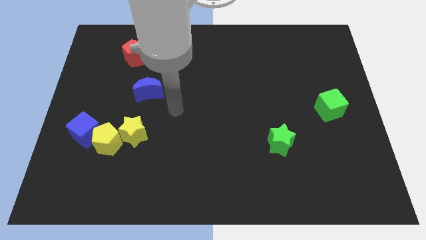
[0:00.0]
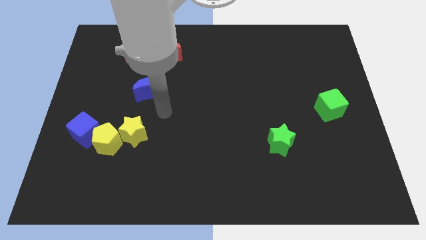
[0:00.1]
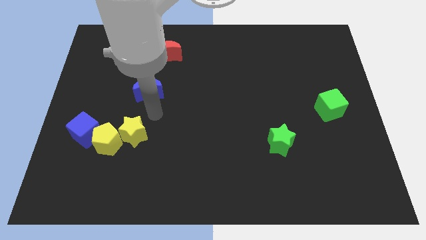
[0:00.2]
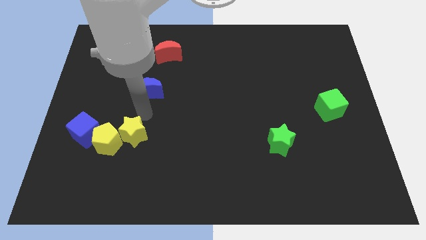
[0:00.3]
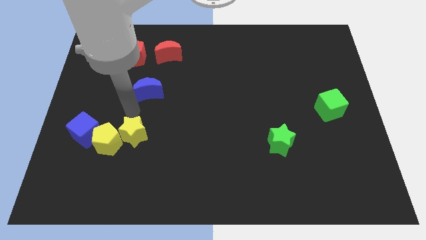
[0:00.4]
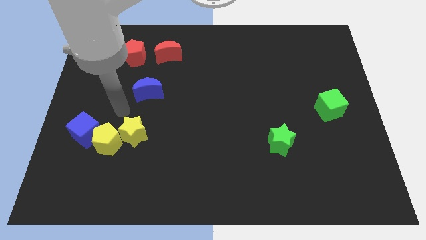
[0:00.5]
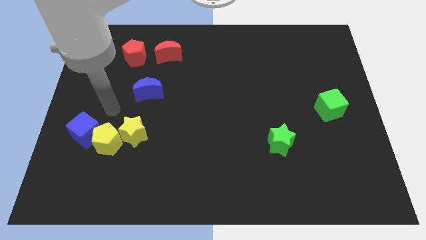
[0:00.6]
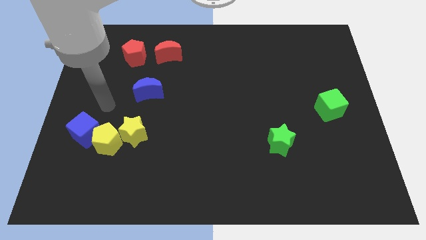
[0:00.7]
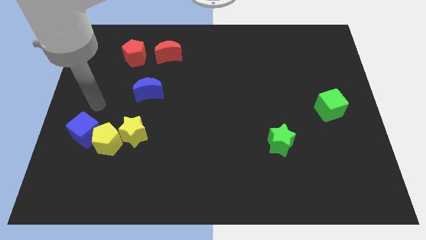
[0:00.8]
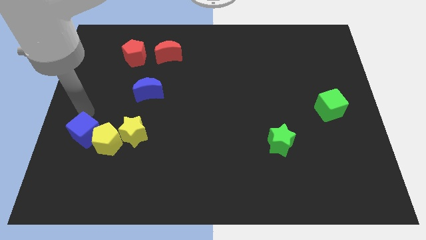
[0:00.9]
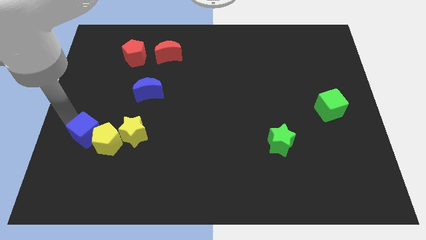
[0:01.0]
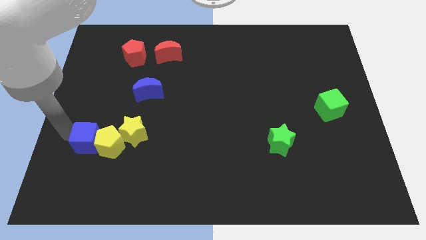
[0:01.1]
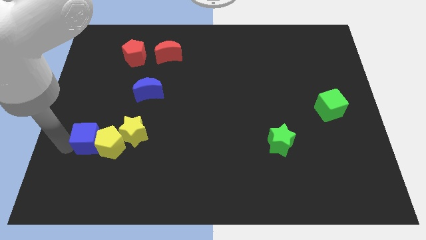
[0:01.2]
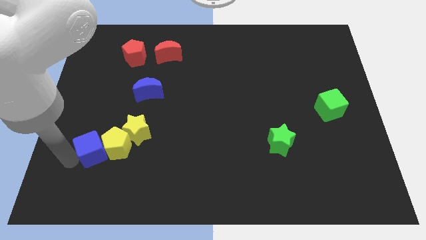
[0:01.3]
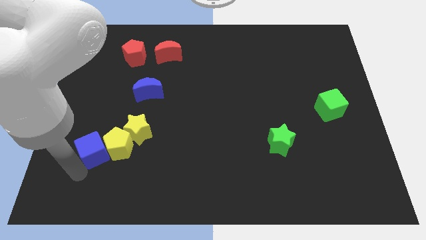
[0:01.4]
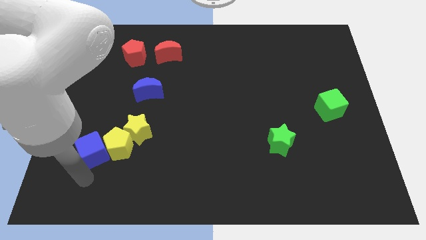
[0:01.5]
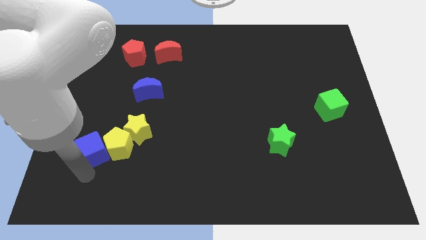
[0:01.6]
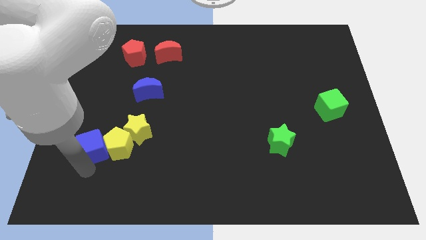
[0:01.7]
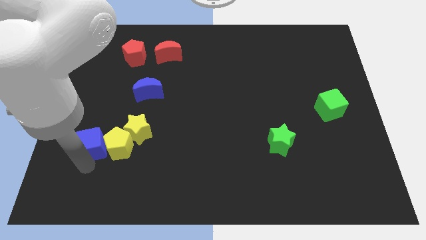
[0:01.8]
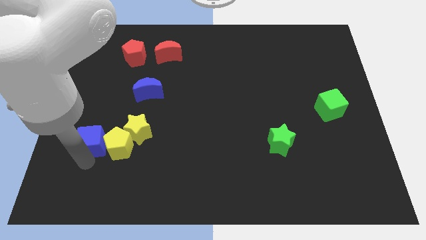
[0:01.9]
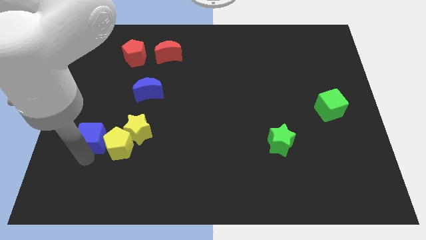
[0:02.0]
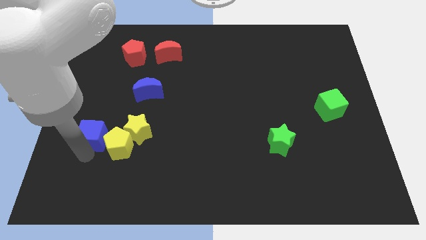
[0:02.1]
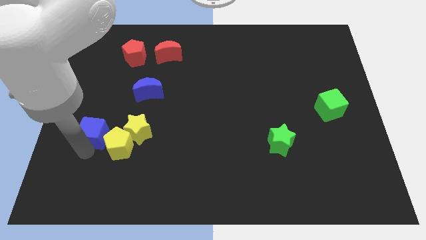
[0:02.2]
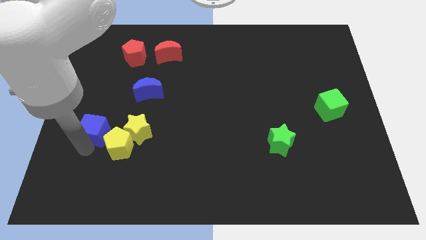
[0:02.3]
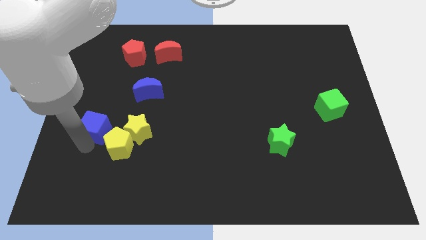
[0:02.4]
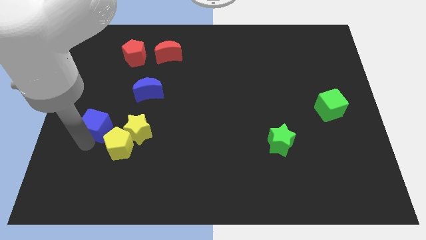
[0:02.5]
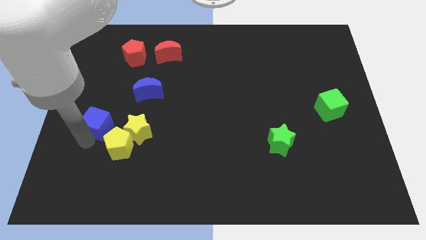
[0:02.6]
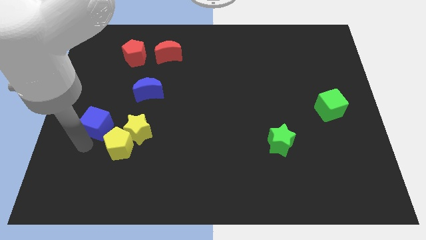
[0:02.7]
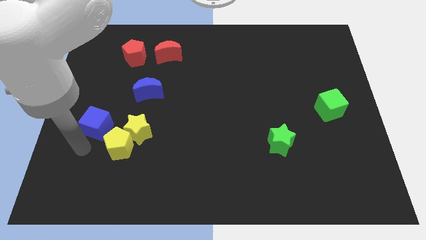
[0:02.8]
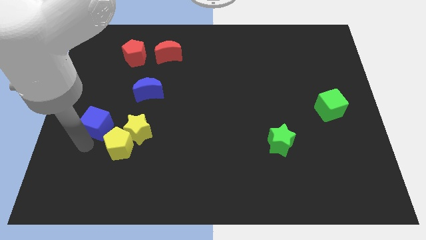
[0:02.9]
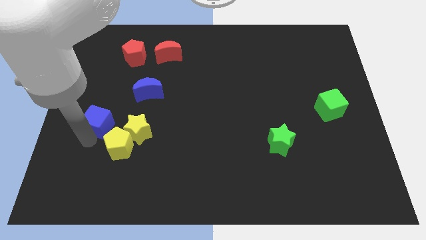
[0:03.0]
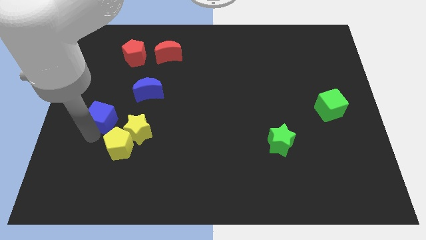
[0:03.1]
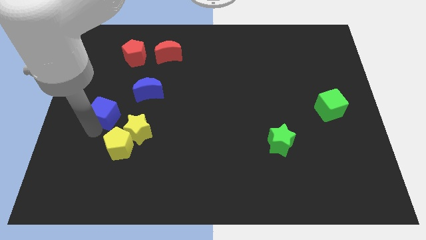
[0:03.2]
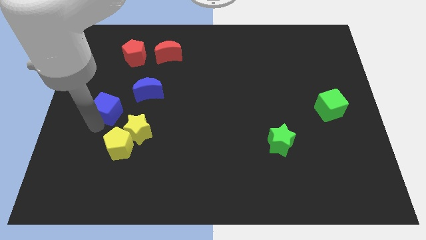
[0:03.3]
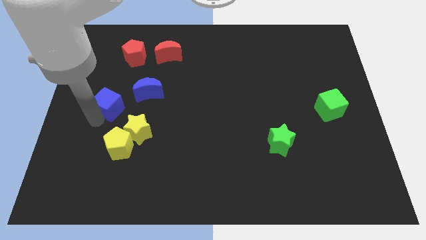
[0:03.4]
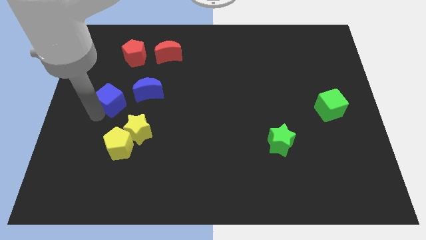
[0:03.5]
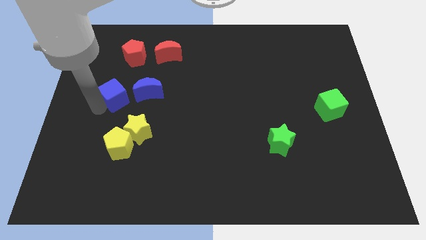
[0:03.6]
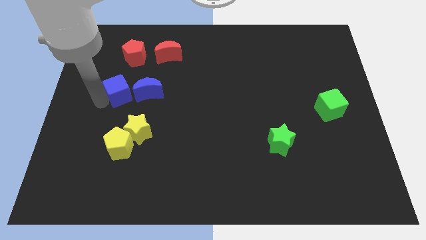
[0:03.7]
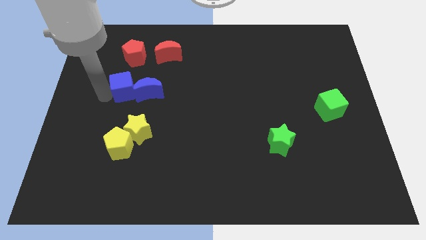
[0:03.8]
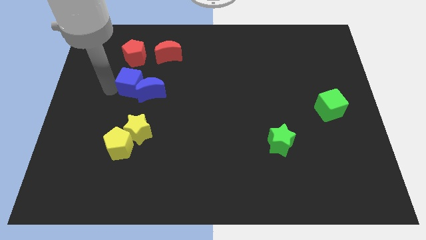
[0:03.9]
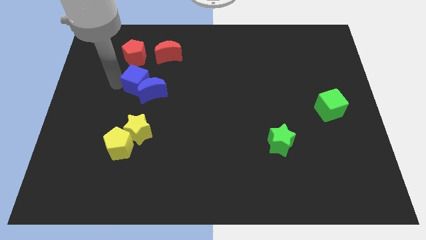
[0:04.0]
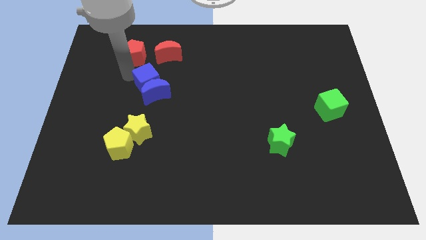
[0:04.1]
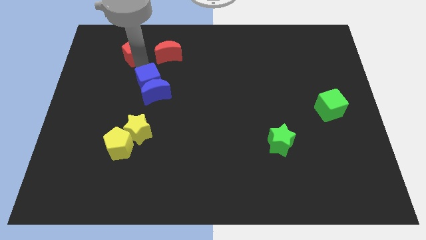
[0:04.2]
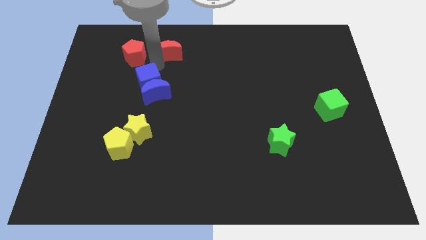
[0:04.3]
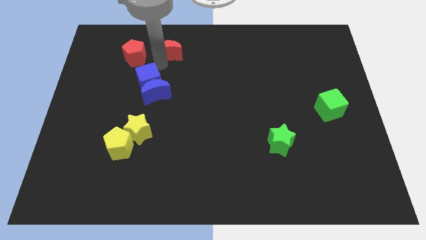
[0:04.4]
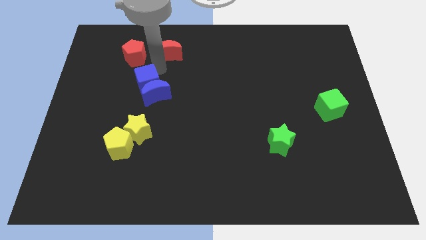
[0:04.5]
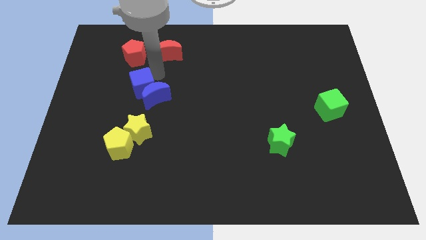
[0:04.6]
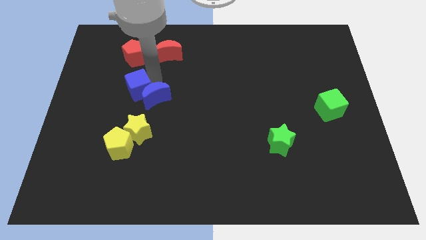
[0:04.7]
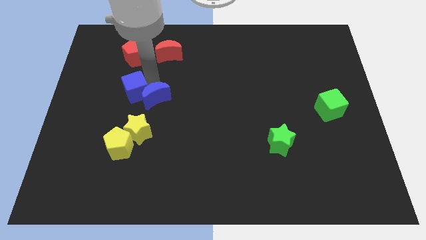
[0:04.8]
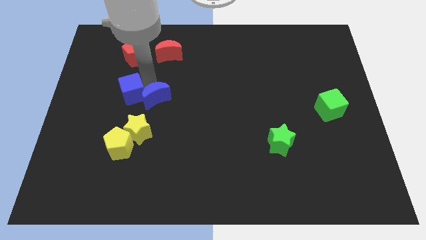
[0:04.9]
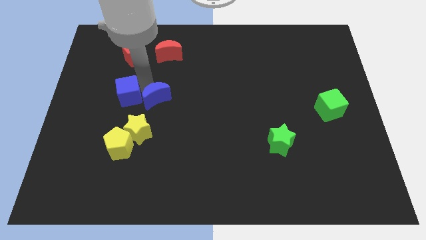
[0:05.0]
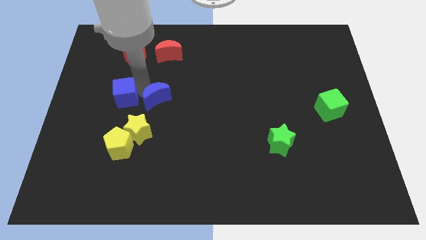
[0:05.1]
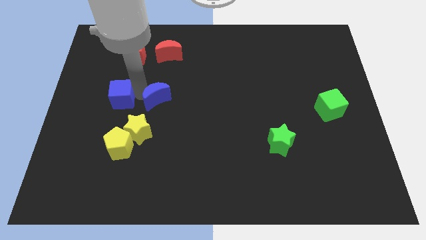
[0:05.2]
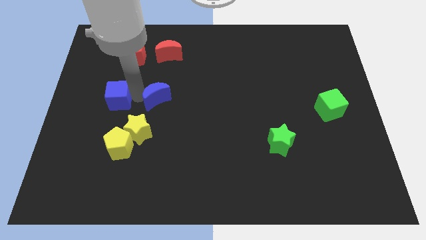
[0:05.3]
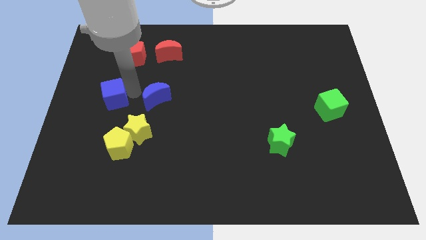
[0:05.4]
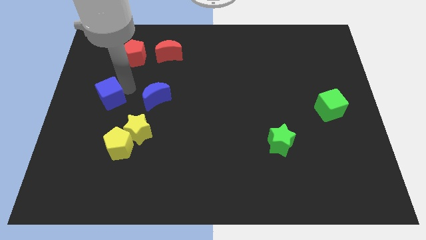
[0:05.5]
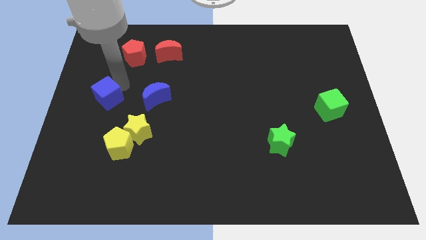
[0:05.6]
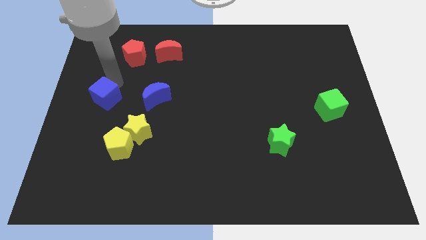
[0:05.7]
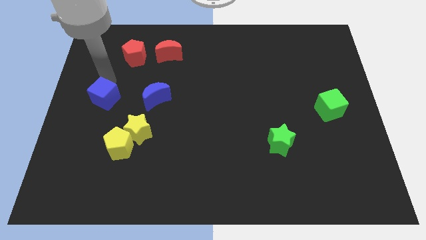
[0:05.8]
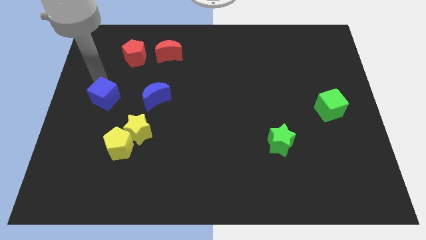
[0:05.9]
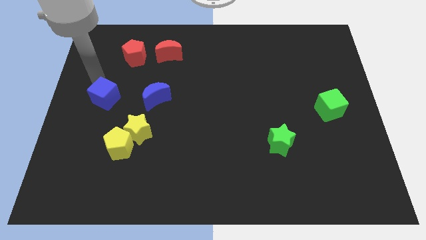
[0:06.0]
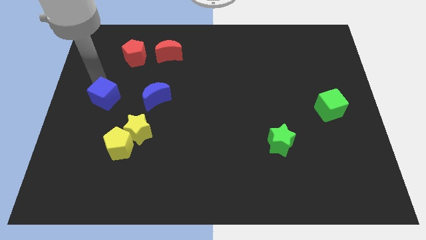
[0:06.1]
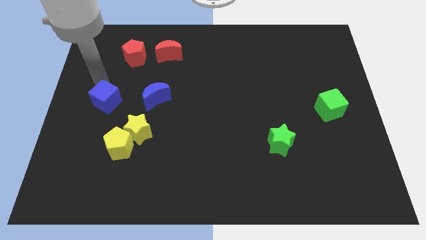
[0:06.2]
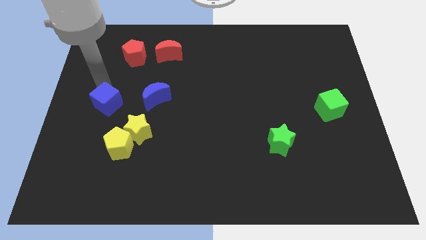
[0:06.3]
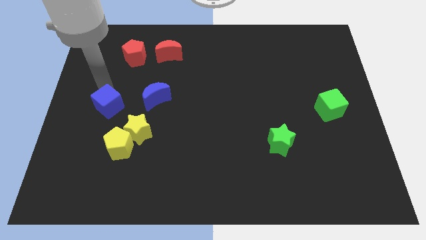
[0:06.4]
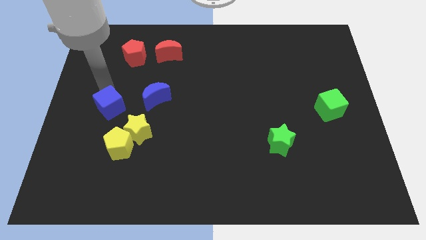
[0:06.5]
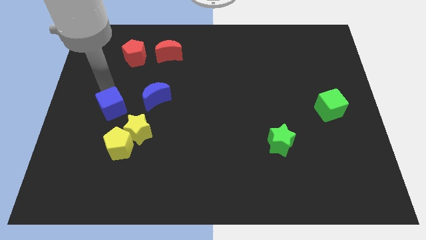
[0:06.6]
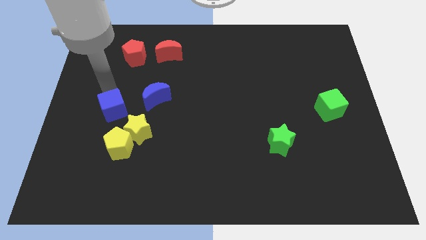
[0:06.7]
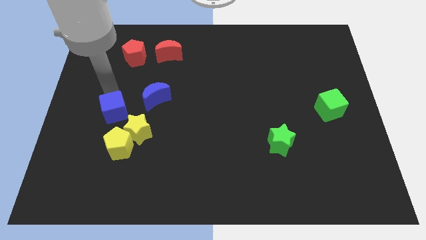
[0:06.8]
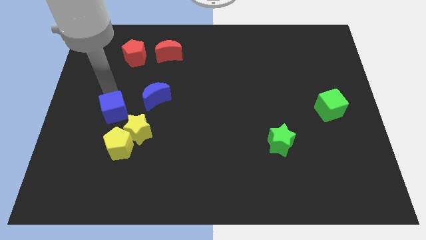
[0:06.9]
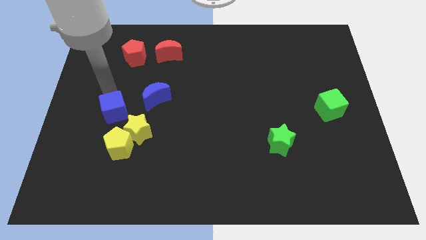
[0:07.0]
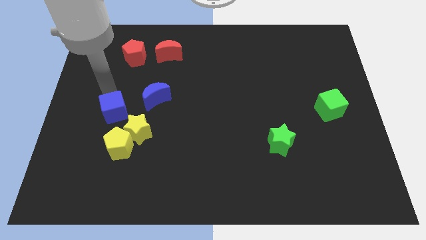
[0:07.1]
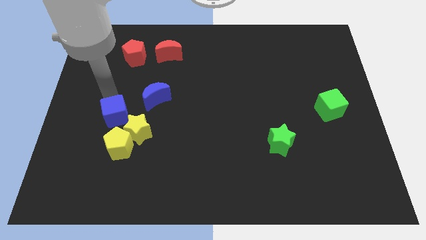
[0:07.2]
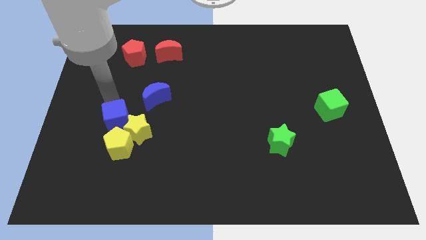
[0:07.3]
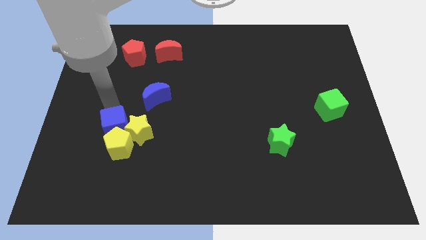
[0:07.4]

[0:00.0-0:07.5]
move the blue cube next to the yellow star
